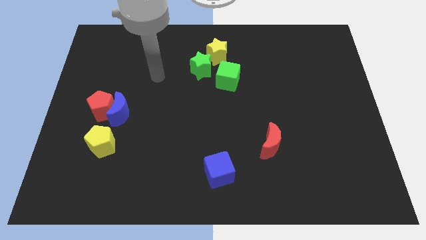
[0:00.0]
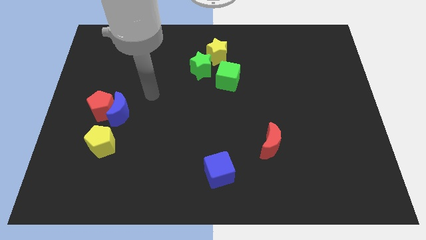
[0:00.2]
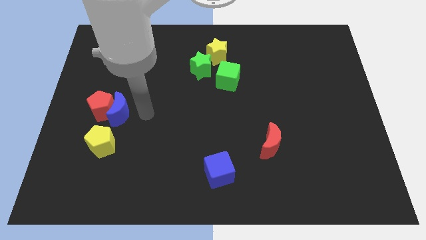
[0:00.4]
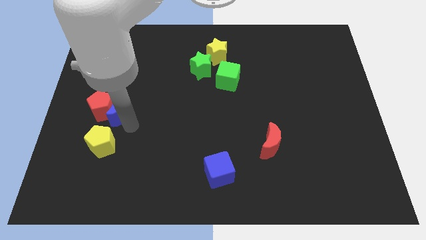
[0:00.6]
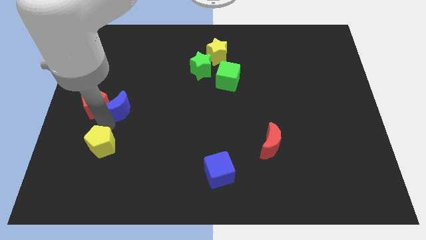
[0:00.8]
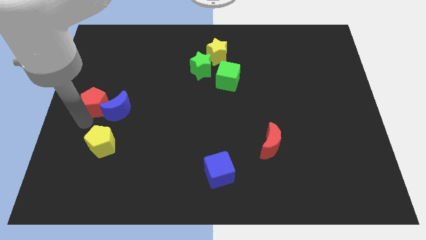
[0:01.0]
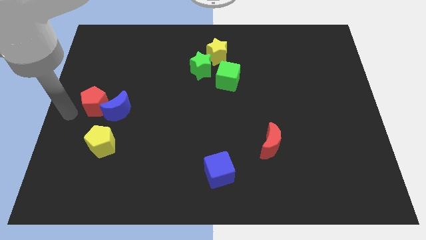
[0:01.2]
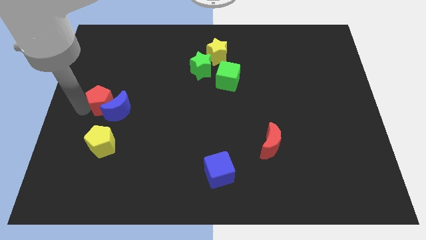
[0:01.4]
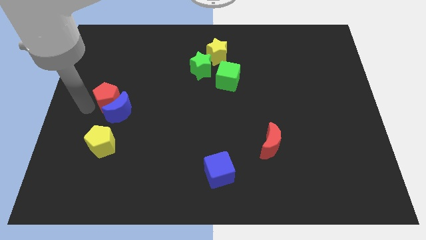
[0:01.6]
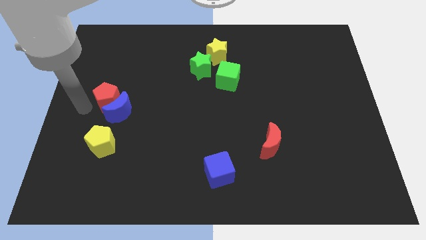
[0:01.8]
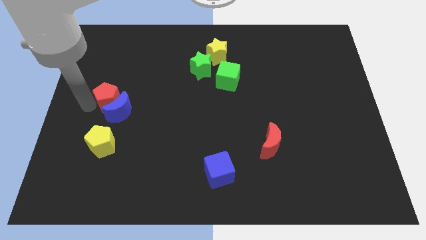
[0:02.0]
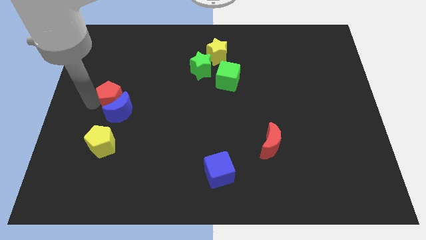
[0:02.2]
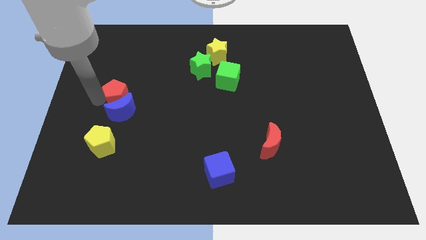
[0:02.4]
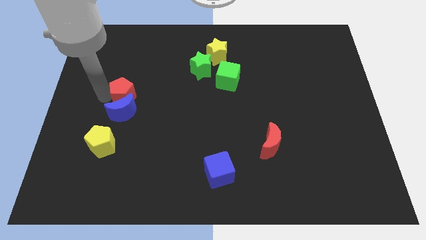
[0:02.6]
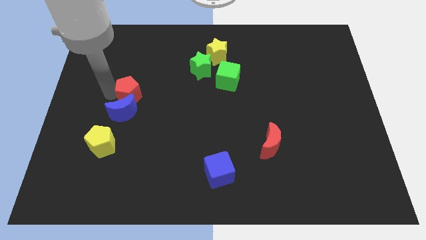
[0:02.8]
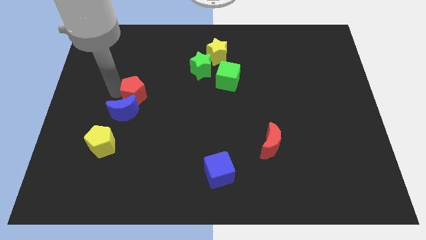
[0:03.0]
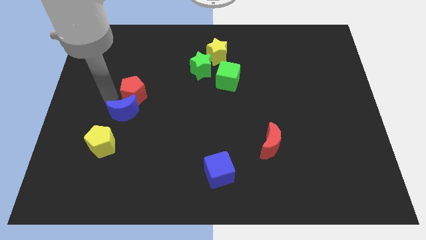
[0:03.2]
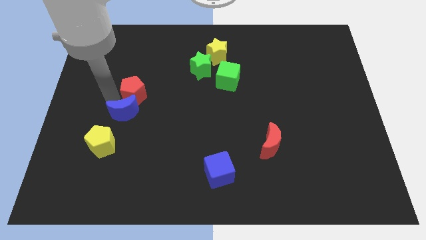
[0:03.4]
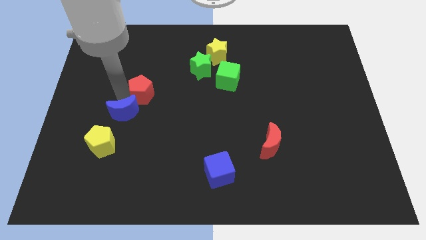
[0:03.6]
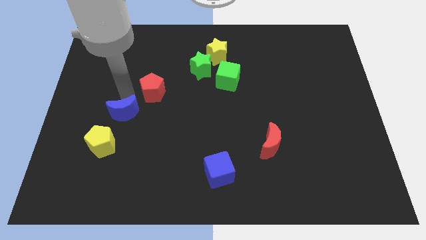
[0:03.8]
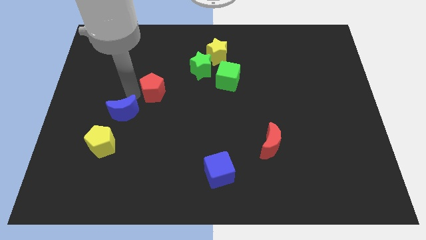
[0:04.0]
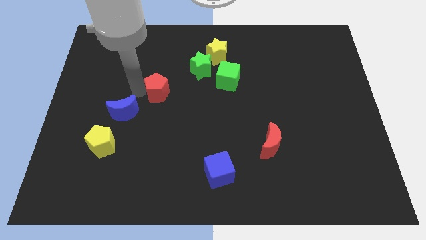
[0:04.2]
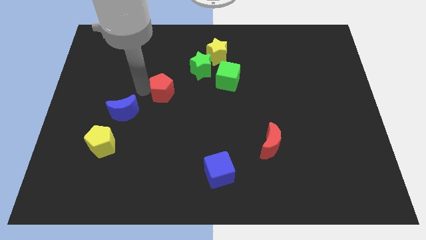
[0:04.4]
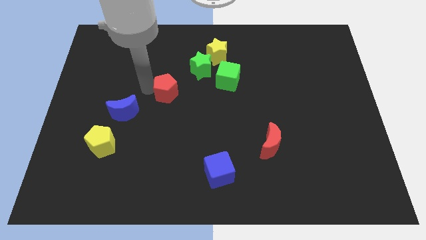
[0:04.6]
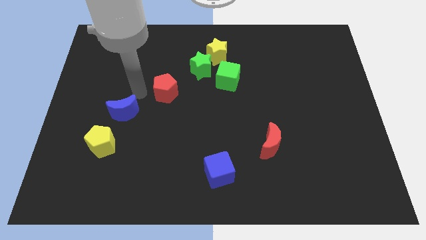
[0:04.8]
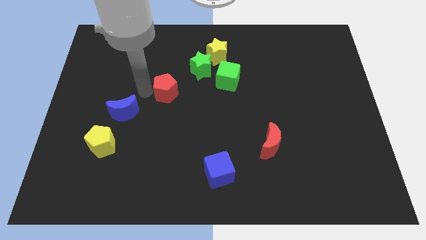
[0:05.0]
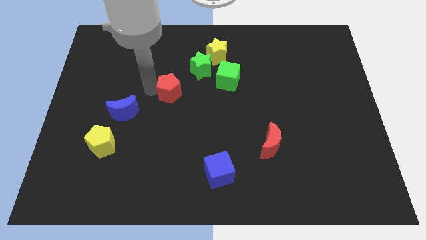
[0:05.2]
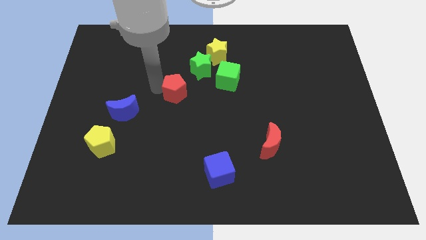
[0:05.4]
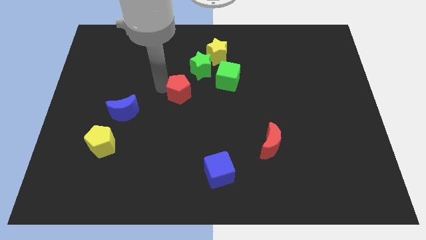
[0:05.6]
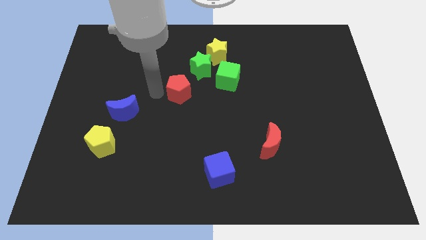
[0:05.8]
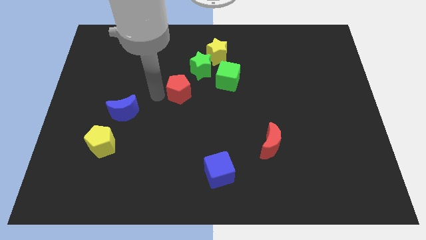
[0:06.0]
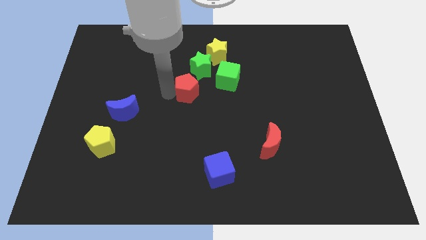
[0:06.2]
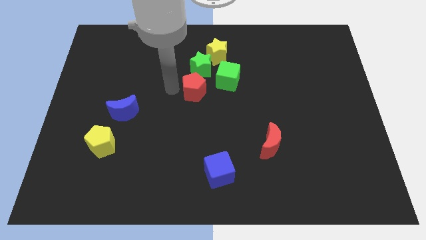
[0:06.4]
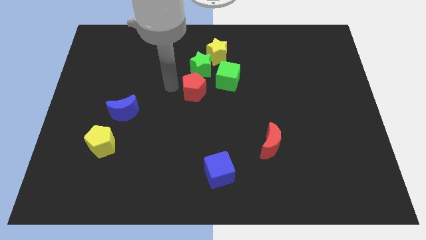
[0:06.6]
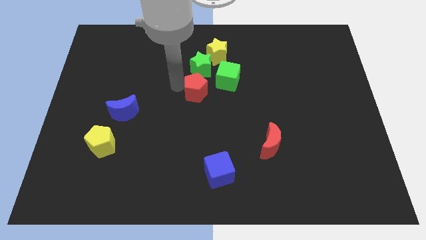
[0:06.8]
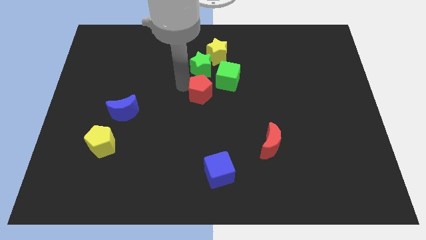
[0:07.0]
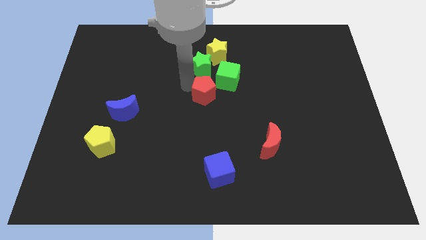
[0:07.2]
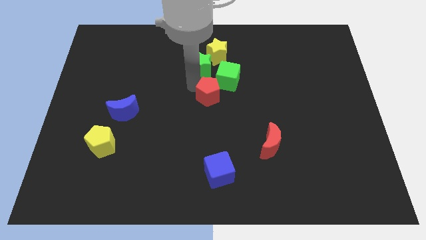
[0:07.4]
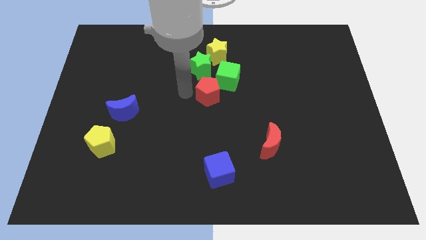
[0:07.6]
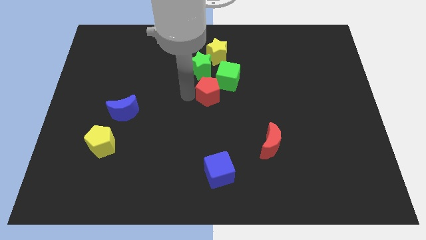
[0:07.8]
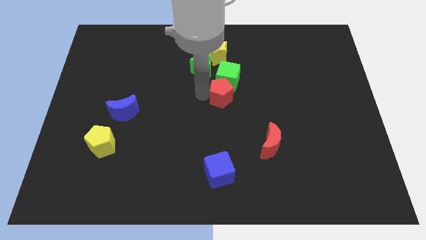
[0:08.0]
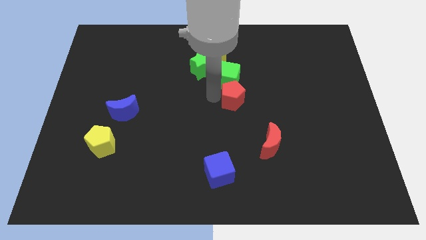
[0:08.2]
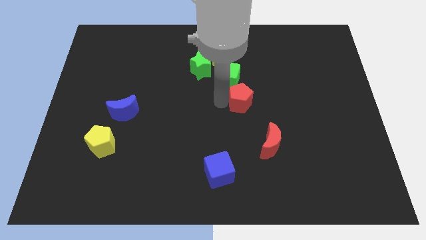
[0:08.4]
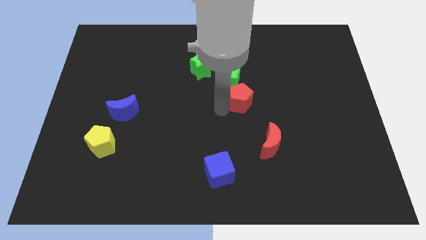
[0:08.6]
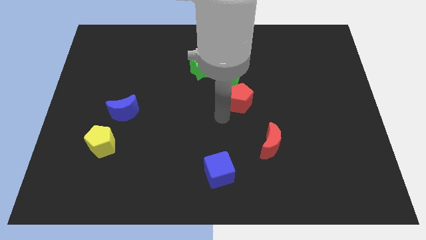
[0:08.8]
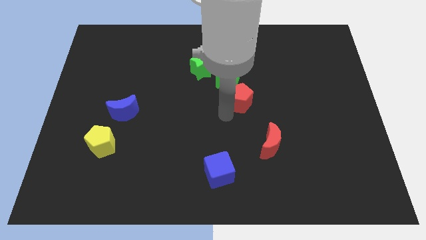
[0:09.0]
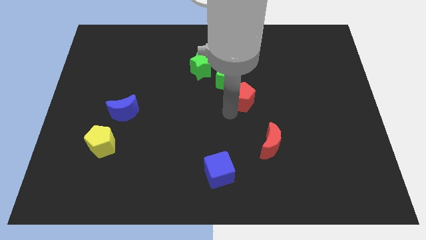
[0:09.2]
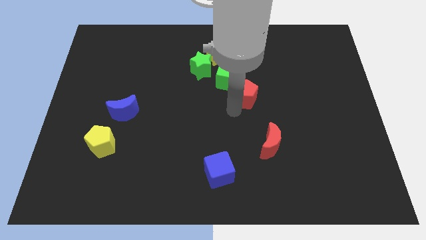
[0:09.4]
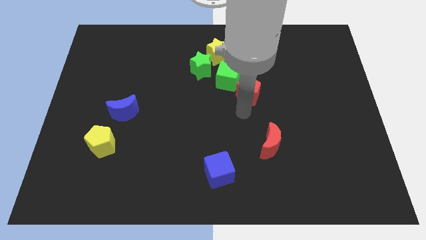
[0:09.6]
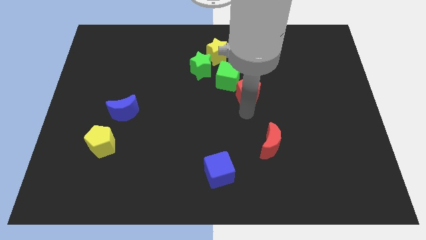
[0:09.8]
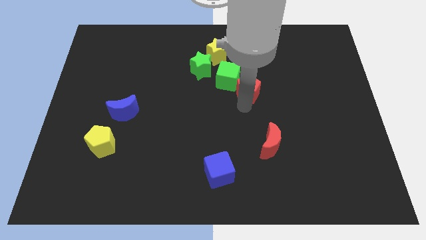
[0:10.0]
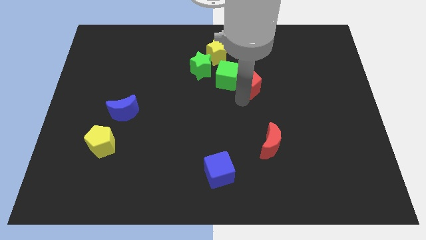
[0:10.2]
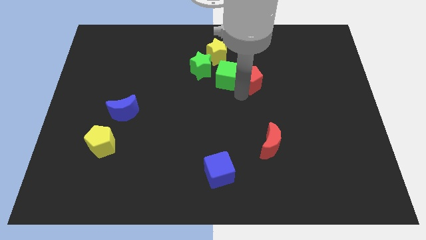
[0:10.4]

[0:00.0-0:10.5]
move the red pentagon diagonally up and to the right of the green cube

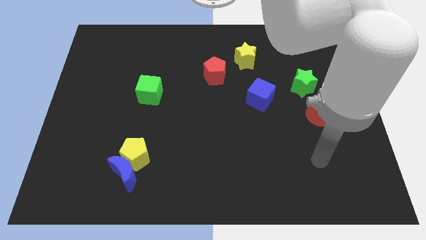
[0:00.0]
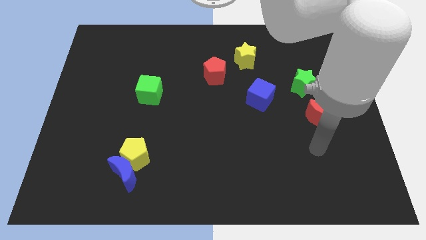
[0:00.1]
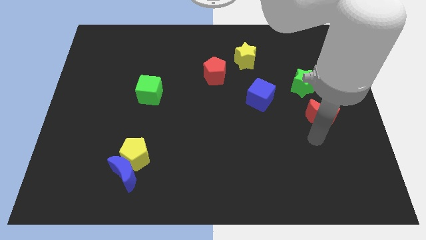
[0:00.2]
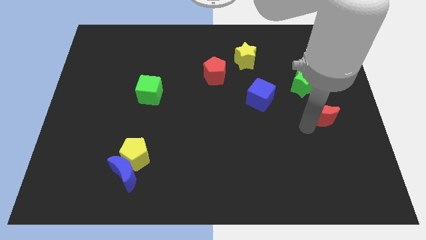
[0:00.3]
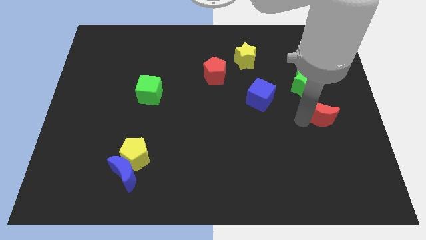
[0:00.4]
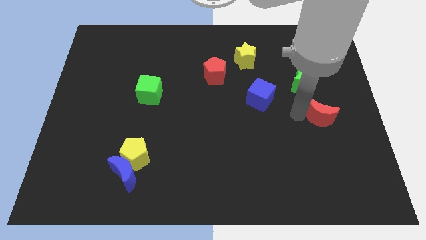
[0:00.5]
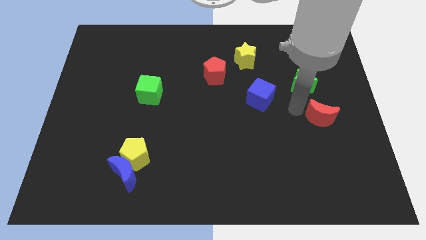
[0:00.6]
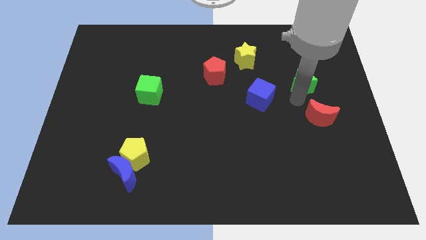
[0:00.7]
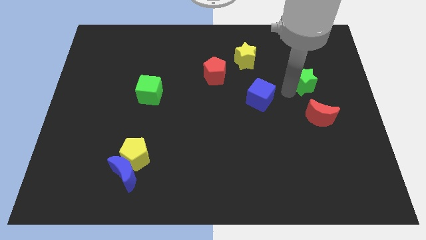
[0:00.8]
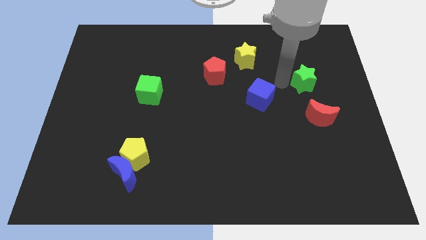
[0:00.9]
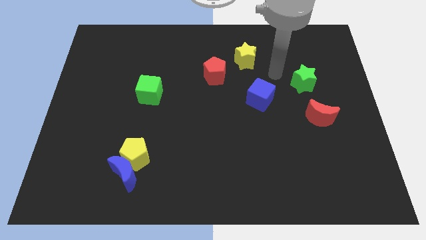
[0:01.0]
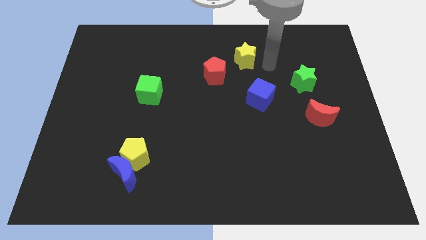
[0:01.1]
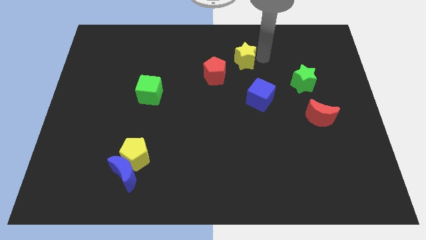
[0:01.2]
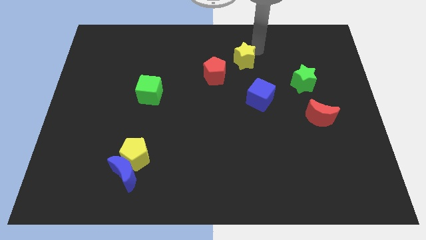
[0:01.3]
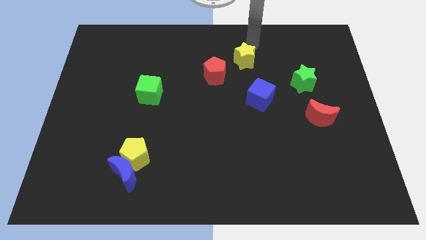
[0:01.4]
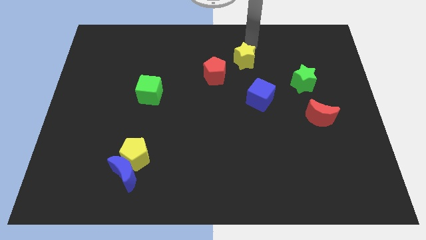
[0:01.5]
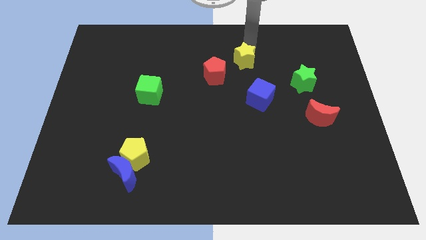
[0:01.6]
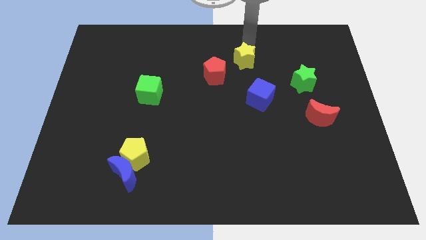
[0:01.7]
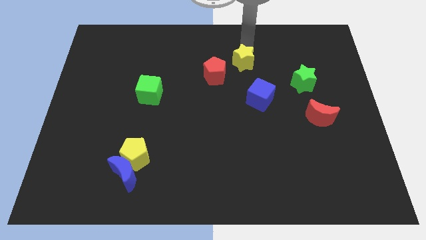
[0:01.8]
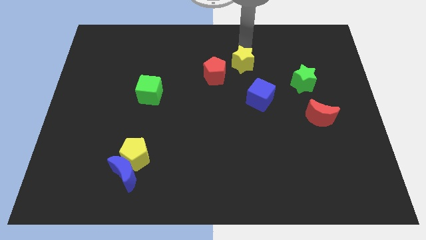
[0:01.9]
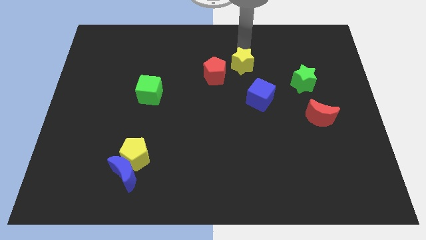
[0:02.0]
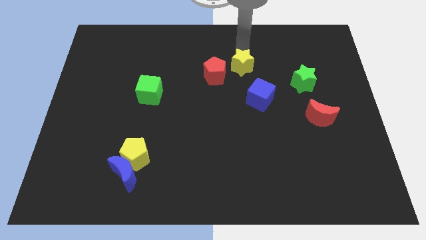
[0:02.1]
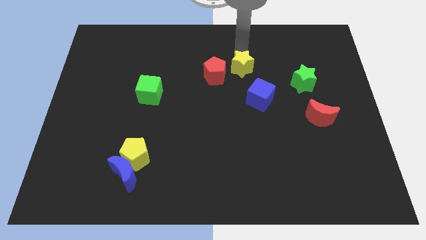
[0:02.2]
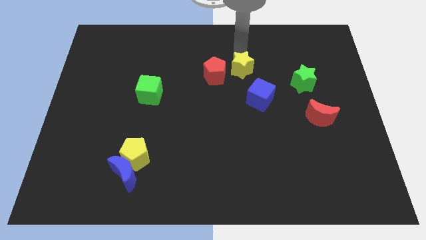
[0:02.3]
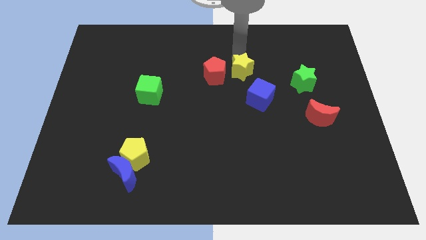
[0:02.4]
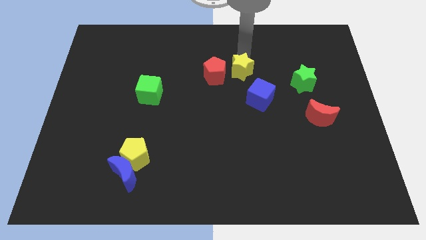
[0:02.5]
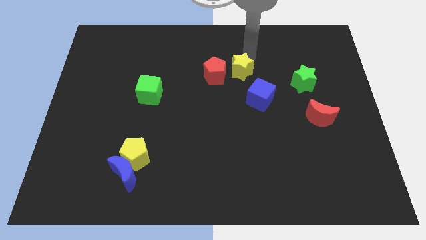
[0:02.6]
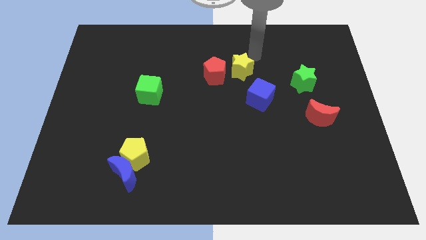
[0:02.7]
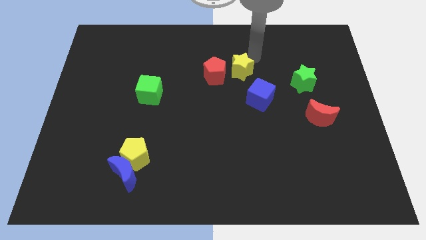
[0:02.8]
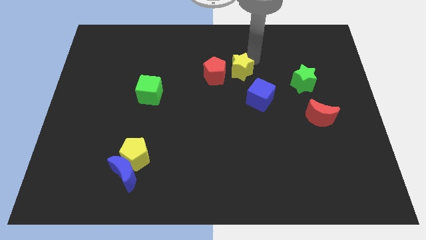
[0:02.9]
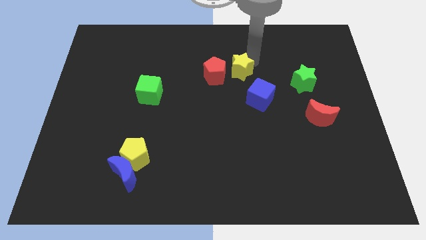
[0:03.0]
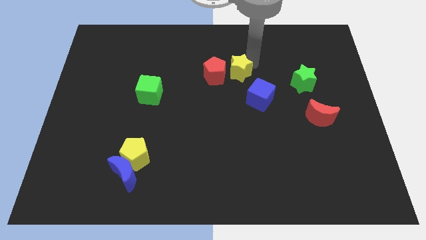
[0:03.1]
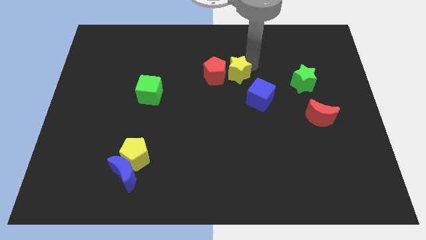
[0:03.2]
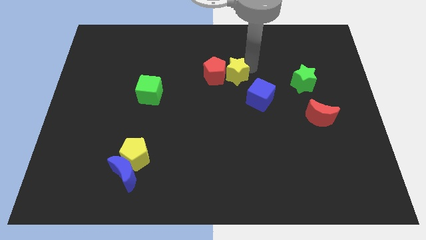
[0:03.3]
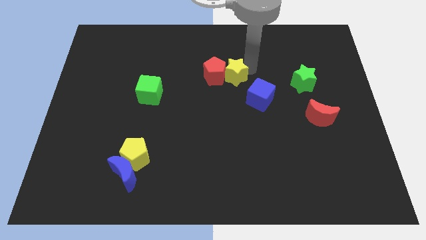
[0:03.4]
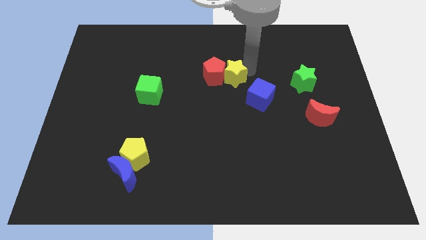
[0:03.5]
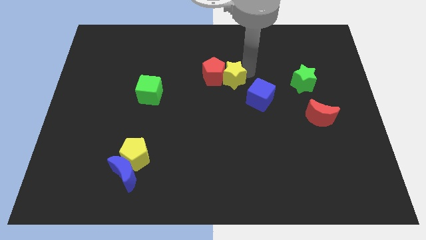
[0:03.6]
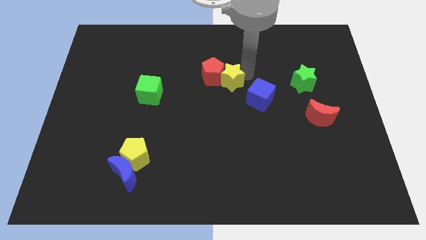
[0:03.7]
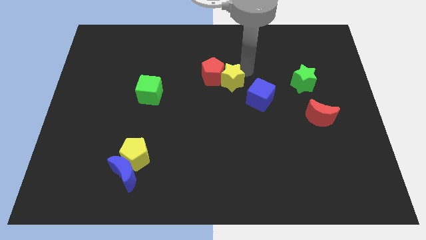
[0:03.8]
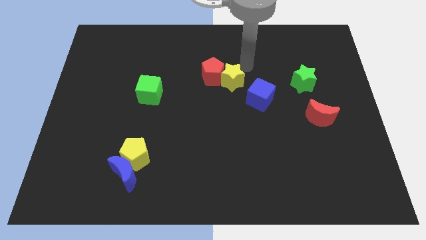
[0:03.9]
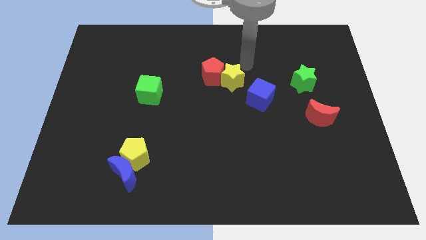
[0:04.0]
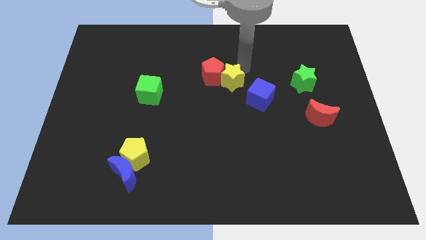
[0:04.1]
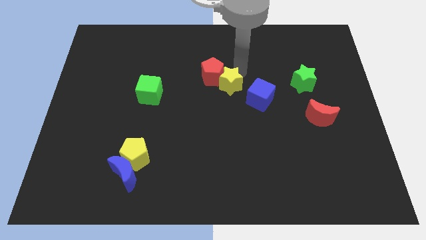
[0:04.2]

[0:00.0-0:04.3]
move the yellow star to the left of the blue cube
